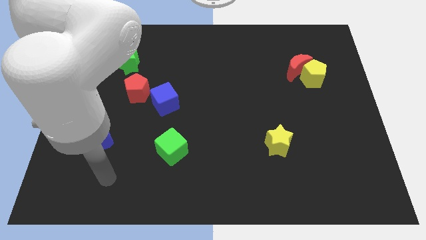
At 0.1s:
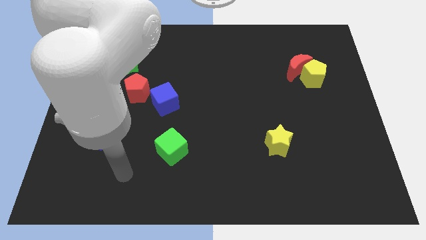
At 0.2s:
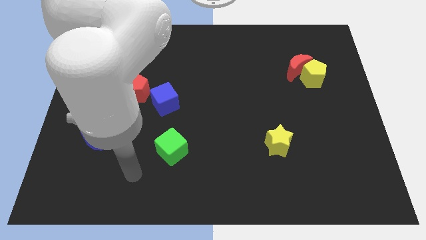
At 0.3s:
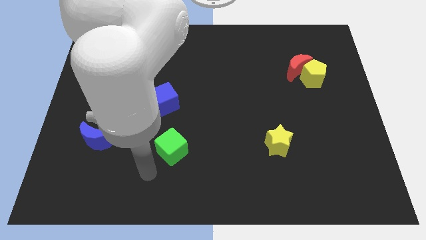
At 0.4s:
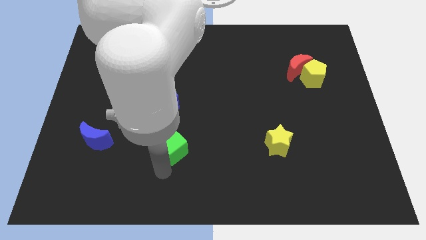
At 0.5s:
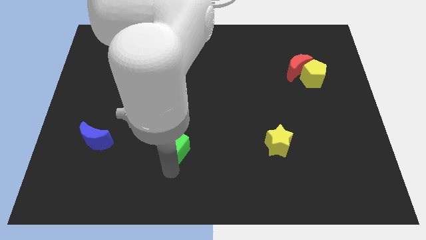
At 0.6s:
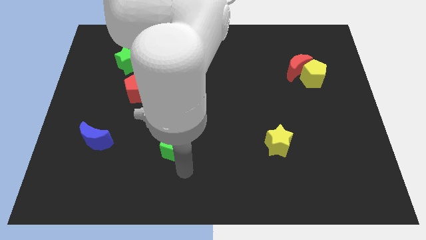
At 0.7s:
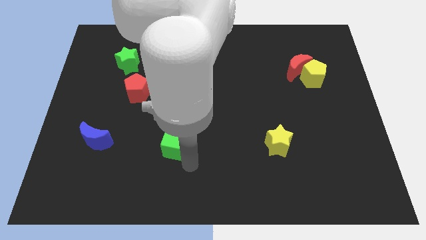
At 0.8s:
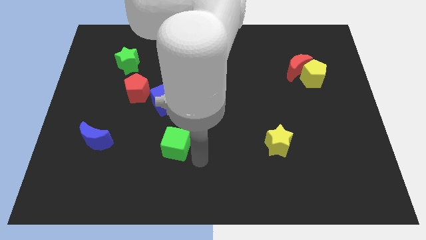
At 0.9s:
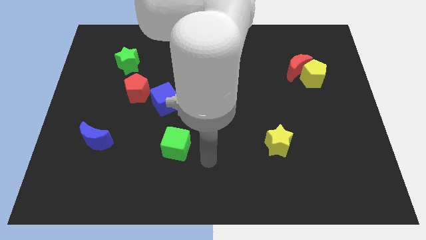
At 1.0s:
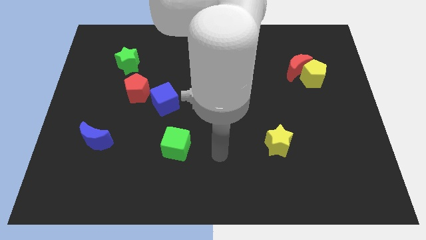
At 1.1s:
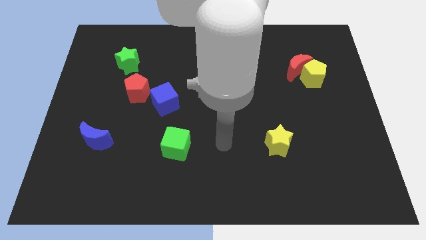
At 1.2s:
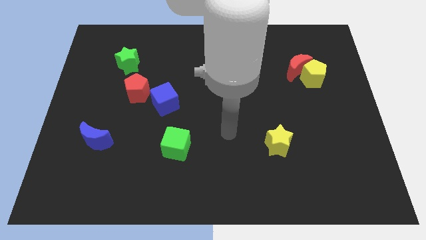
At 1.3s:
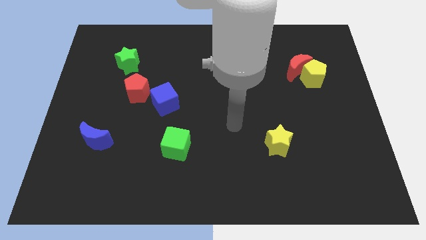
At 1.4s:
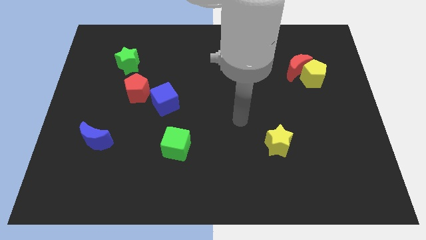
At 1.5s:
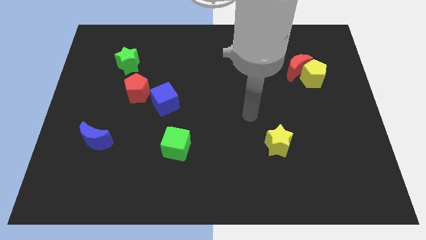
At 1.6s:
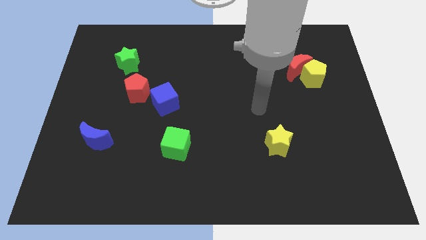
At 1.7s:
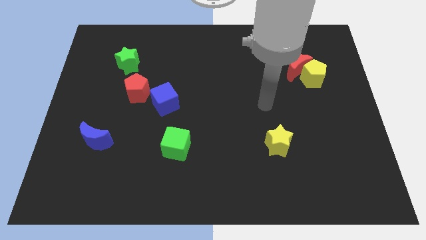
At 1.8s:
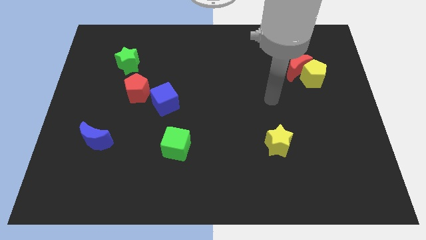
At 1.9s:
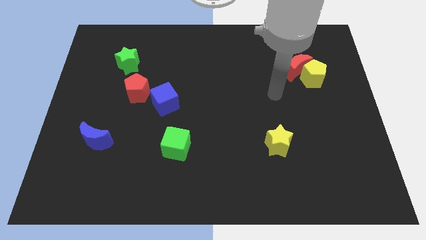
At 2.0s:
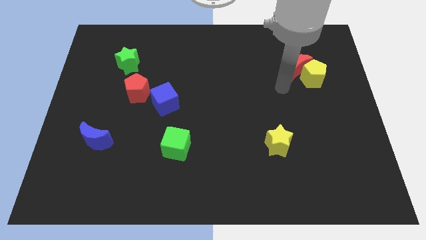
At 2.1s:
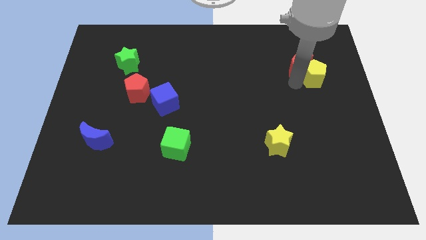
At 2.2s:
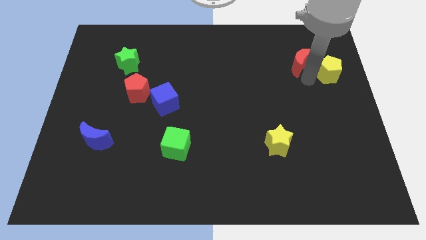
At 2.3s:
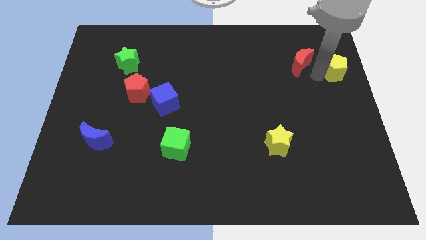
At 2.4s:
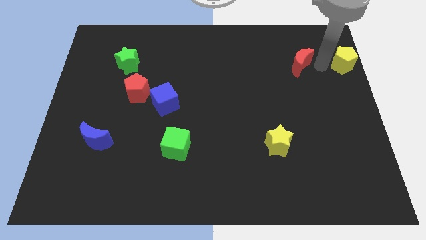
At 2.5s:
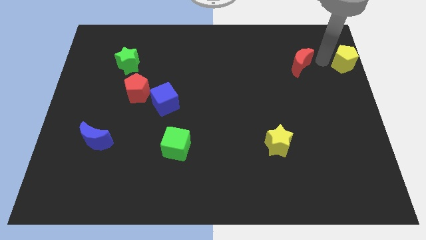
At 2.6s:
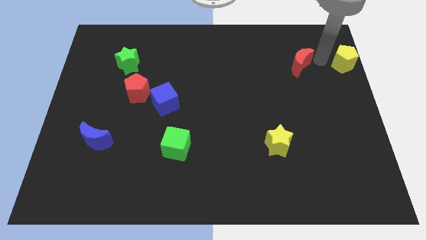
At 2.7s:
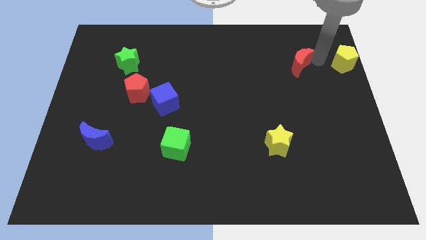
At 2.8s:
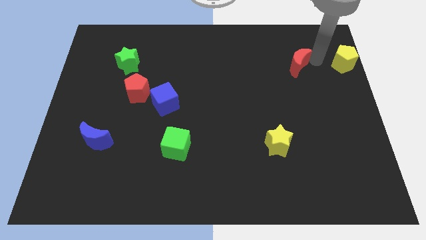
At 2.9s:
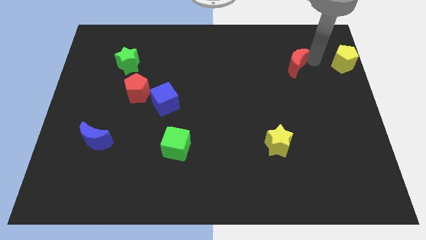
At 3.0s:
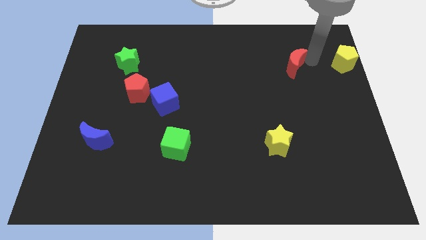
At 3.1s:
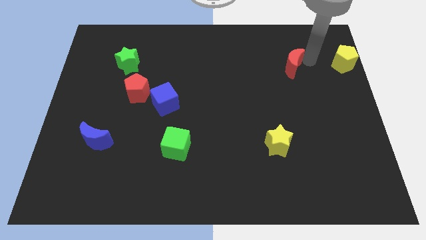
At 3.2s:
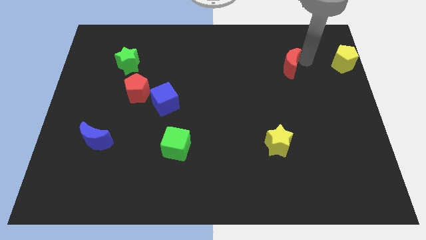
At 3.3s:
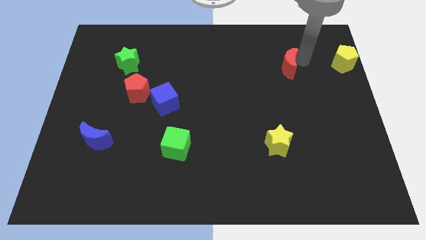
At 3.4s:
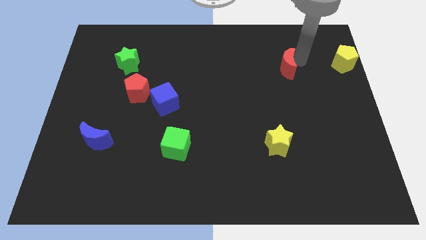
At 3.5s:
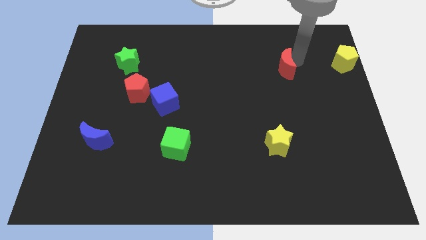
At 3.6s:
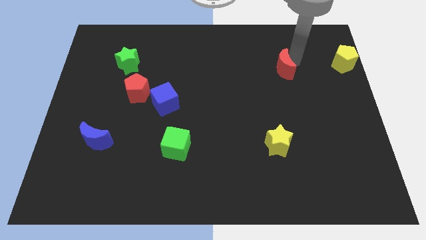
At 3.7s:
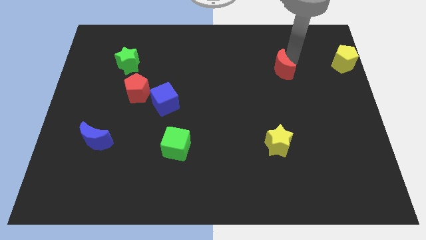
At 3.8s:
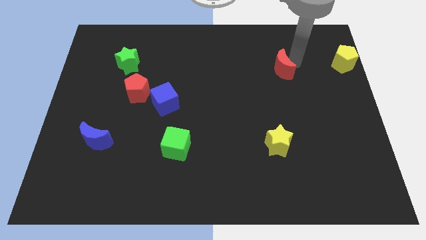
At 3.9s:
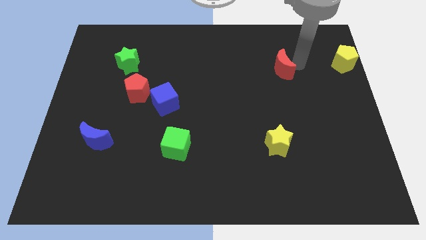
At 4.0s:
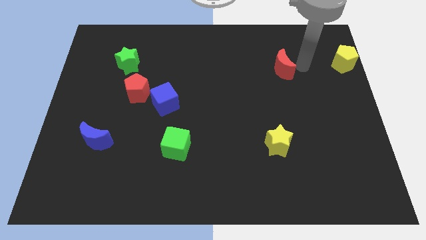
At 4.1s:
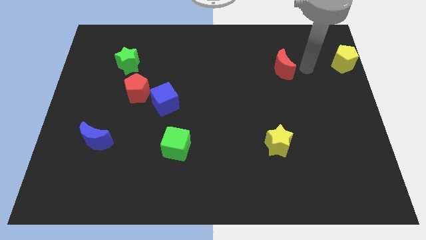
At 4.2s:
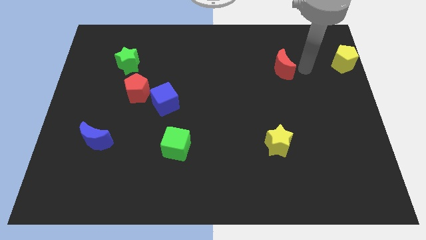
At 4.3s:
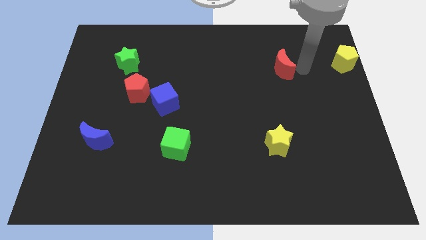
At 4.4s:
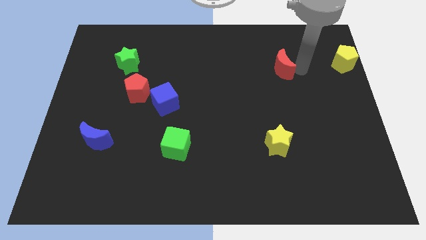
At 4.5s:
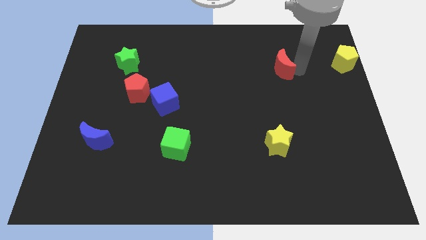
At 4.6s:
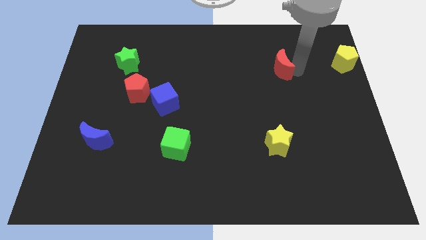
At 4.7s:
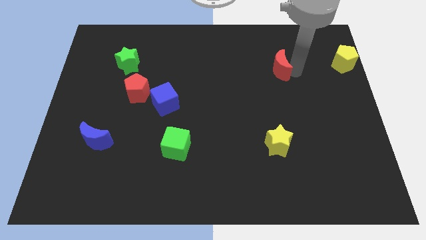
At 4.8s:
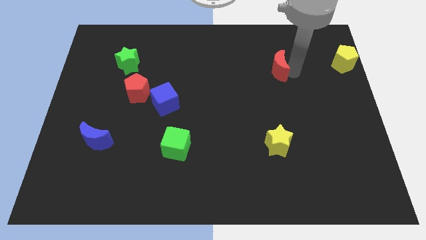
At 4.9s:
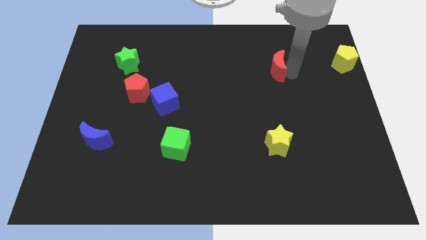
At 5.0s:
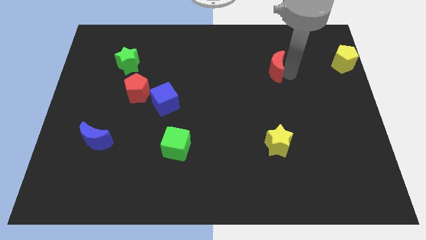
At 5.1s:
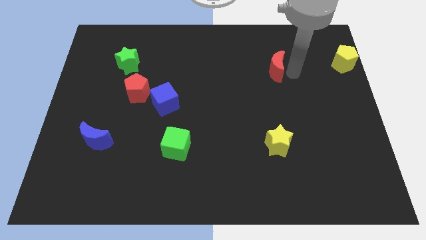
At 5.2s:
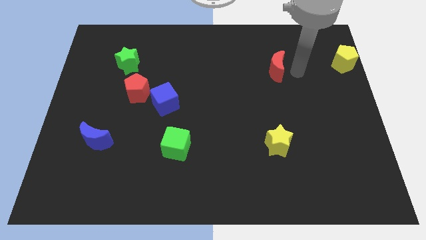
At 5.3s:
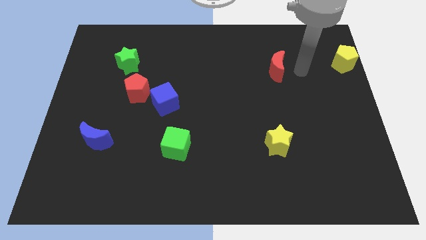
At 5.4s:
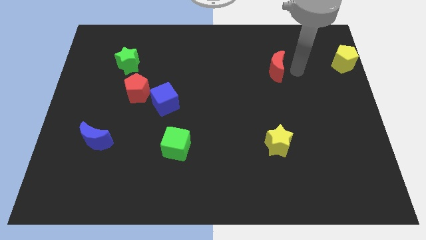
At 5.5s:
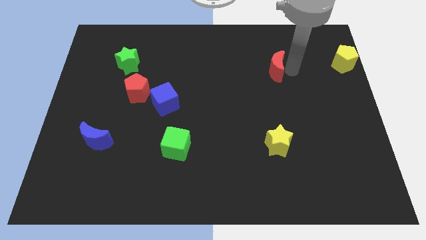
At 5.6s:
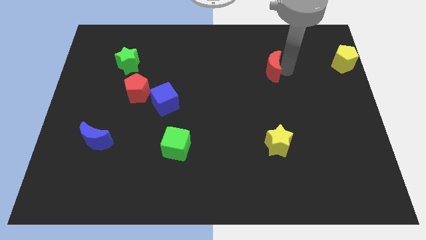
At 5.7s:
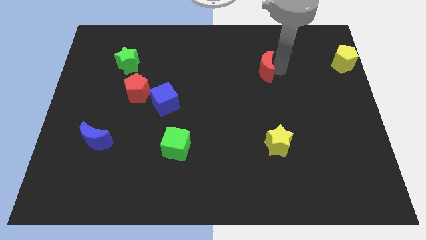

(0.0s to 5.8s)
push the red moon to the left a little

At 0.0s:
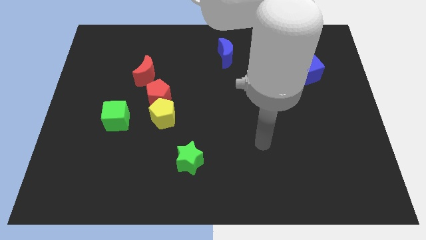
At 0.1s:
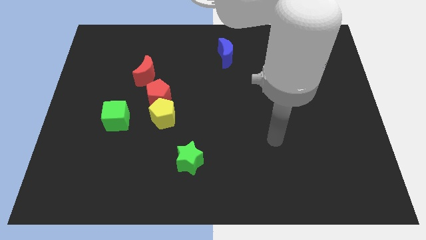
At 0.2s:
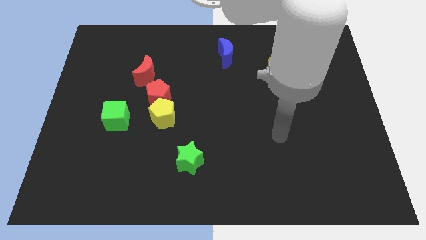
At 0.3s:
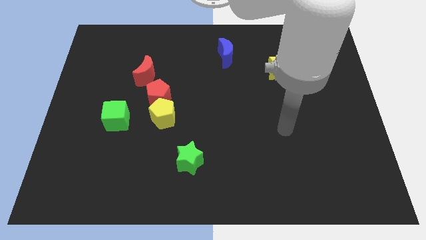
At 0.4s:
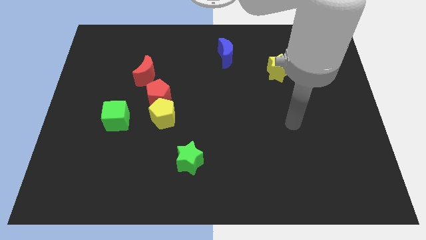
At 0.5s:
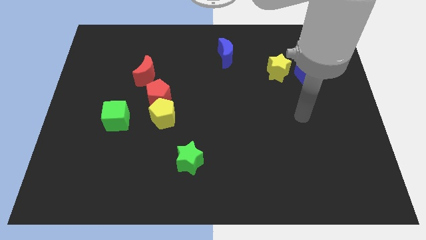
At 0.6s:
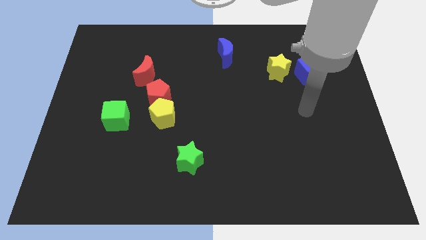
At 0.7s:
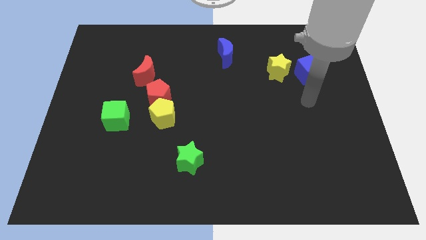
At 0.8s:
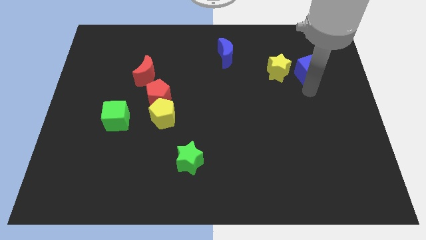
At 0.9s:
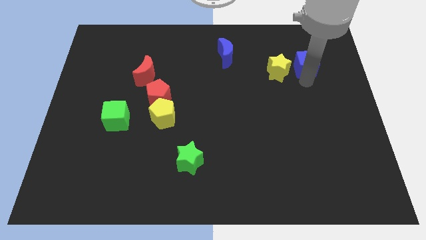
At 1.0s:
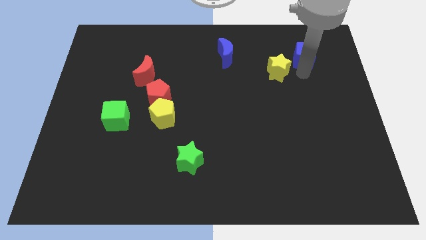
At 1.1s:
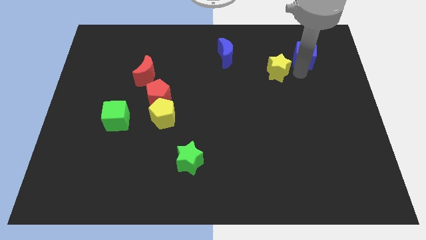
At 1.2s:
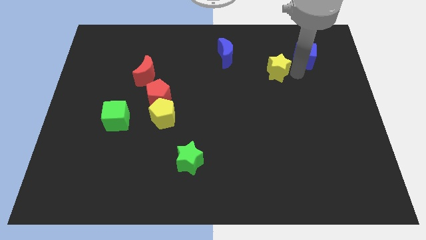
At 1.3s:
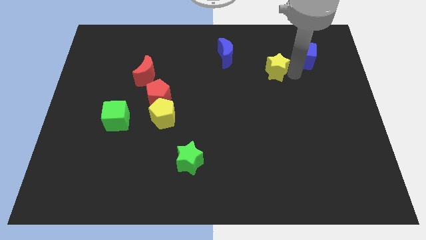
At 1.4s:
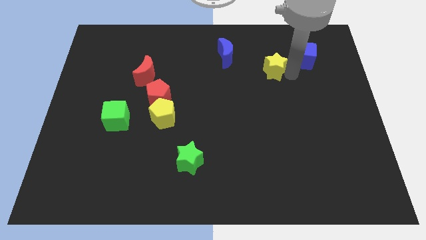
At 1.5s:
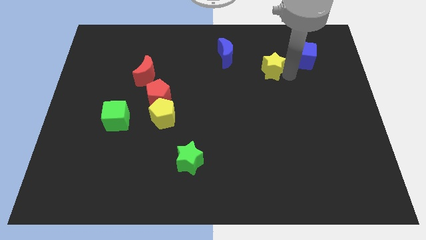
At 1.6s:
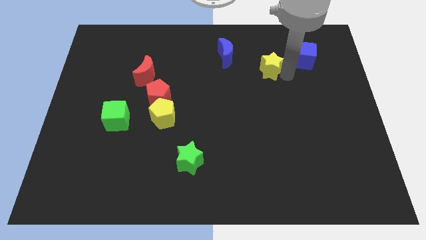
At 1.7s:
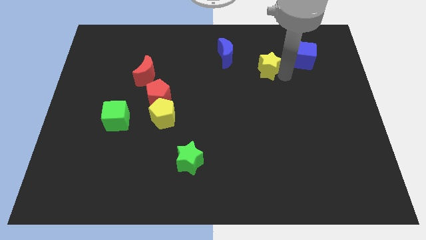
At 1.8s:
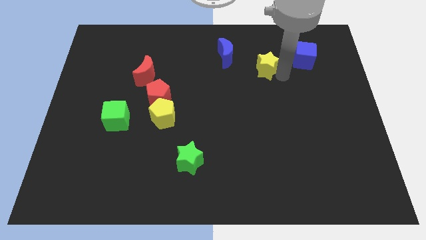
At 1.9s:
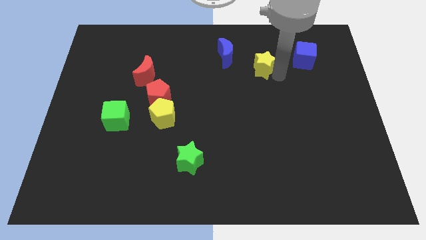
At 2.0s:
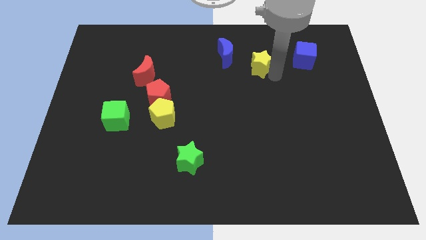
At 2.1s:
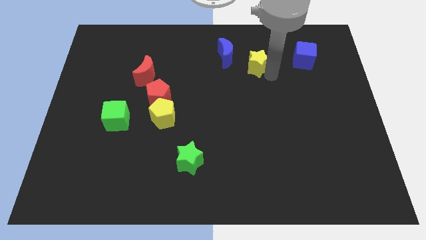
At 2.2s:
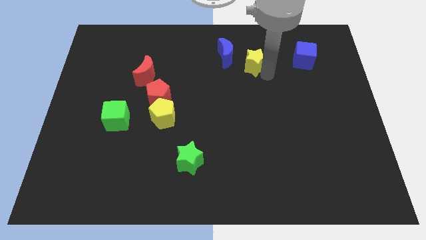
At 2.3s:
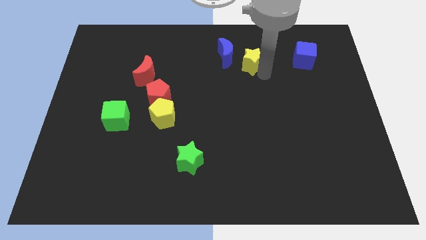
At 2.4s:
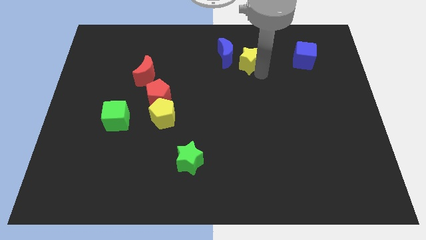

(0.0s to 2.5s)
slightly move the yellow star left

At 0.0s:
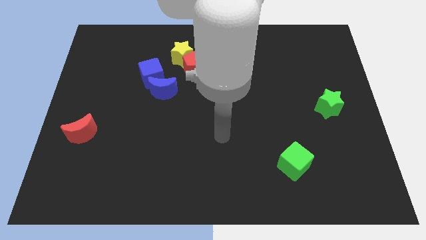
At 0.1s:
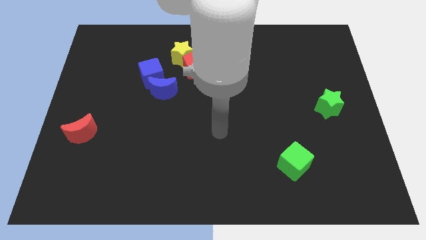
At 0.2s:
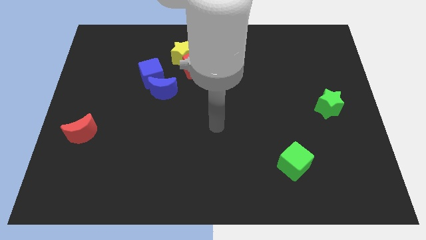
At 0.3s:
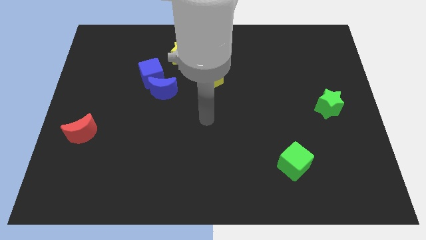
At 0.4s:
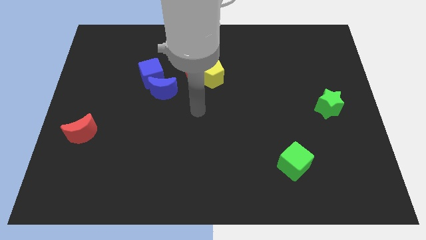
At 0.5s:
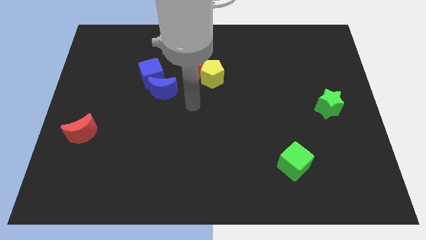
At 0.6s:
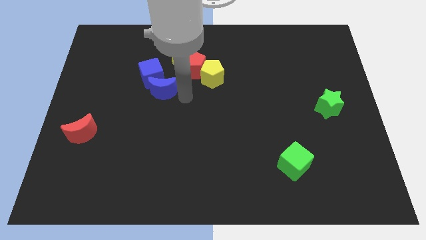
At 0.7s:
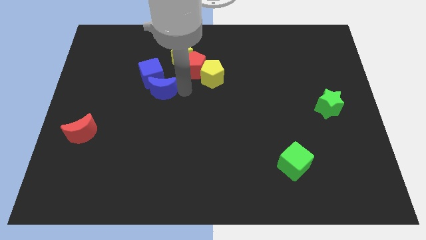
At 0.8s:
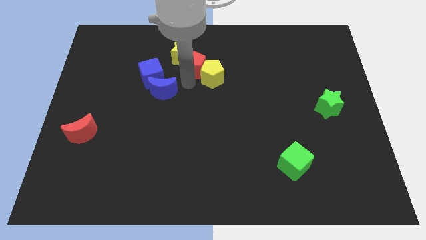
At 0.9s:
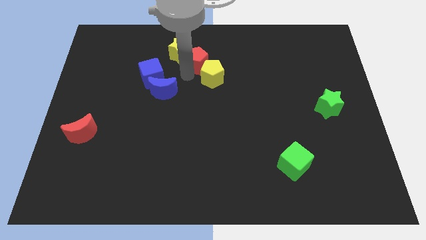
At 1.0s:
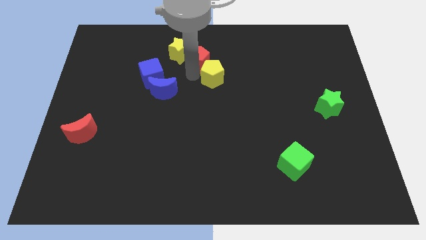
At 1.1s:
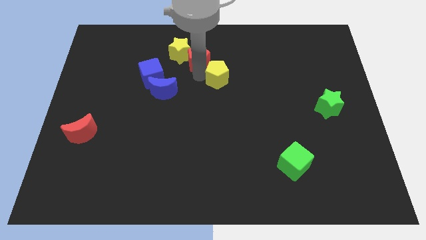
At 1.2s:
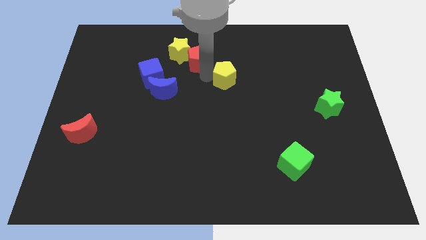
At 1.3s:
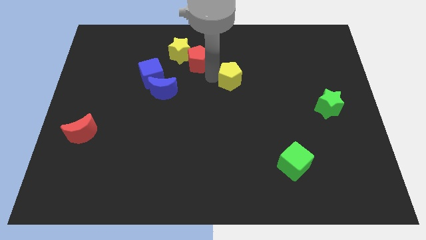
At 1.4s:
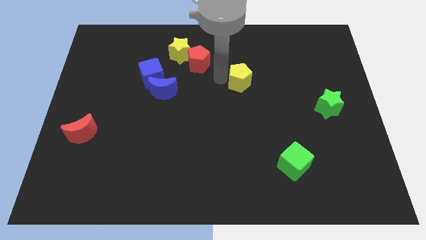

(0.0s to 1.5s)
move the yellow pentagon to the right a bit
